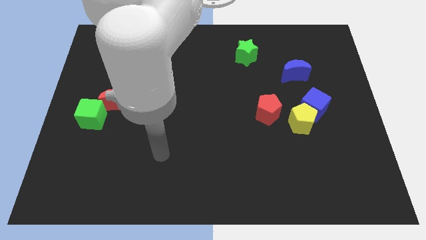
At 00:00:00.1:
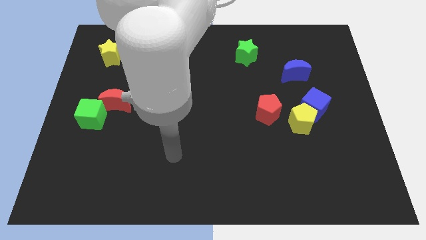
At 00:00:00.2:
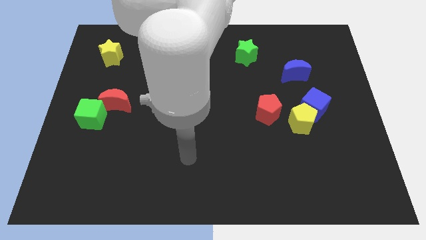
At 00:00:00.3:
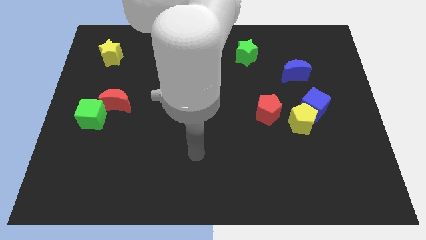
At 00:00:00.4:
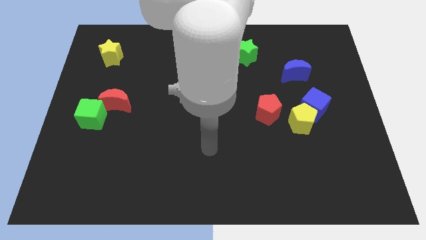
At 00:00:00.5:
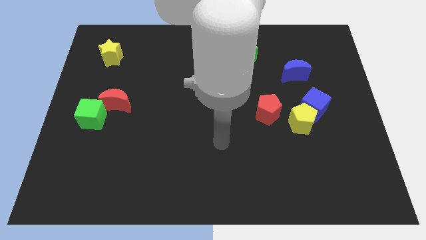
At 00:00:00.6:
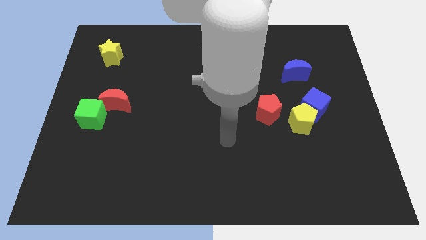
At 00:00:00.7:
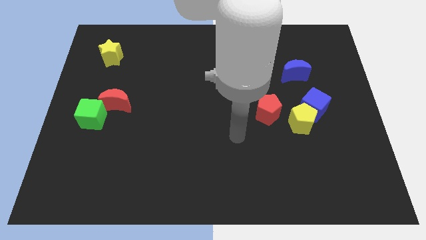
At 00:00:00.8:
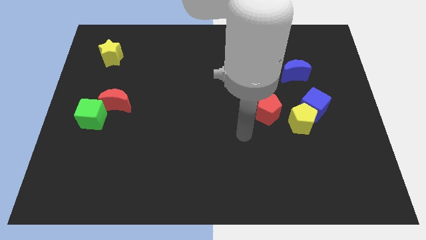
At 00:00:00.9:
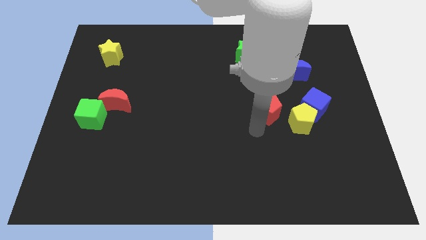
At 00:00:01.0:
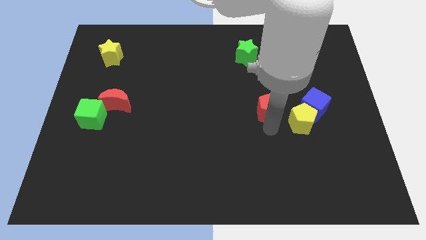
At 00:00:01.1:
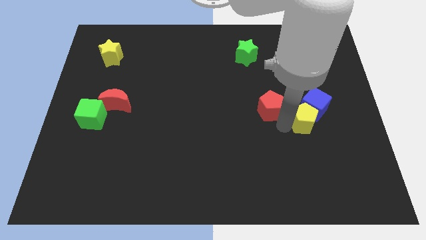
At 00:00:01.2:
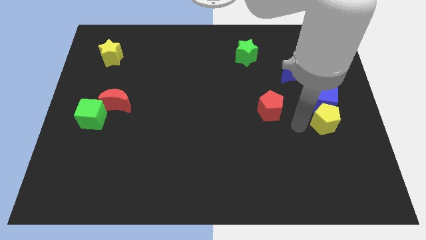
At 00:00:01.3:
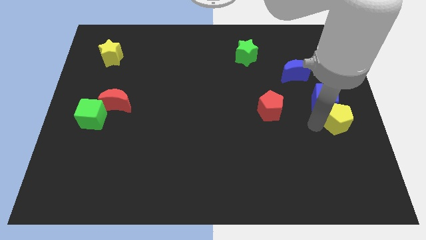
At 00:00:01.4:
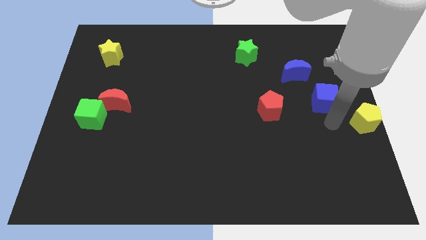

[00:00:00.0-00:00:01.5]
pull the blue cube apart from the yellow pentagon

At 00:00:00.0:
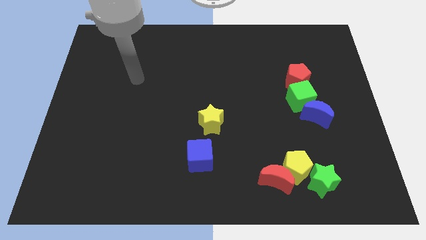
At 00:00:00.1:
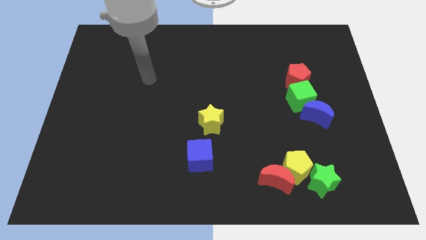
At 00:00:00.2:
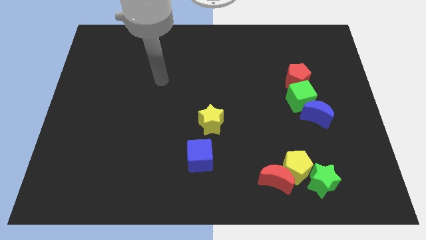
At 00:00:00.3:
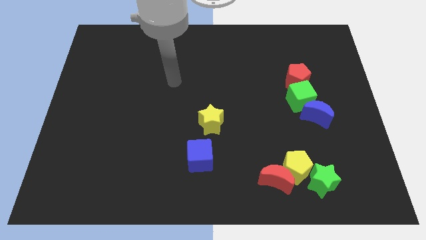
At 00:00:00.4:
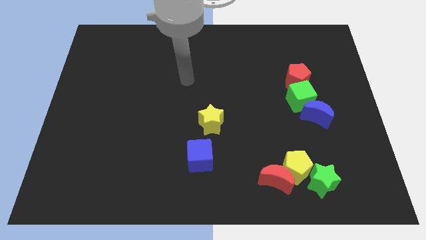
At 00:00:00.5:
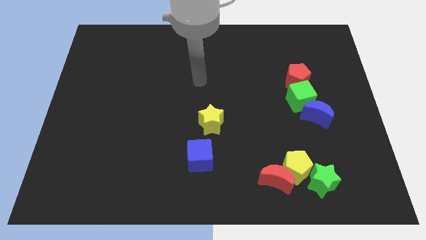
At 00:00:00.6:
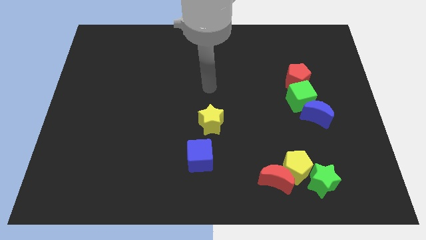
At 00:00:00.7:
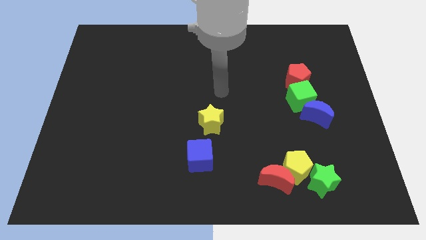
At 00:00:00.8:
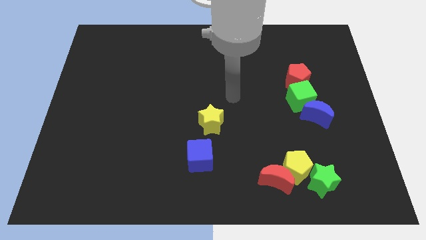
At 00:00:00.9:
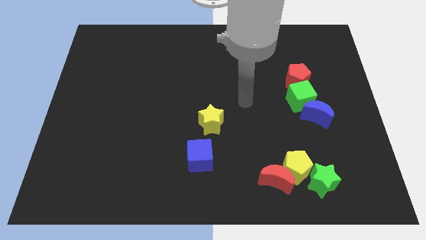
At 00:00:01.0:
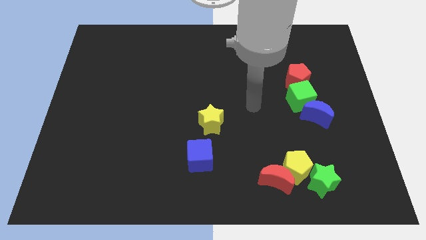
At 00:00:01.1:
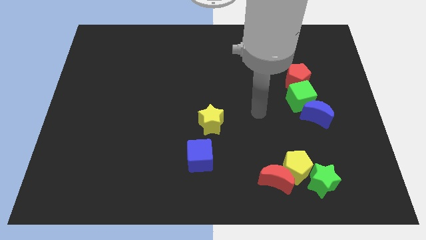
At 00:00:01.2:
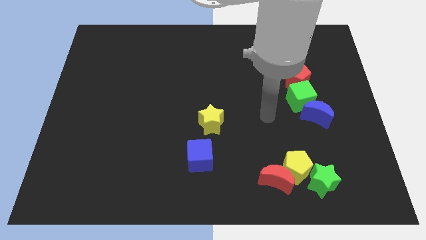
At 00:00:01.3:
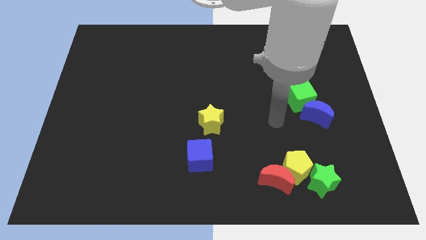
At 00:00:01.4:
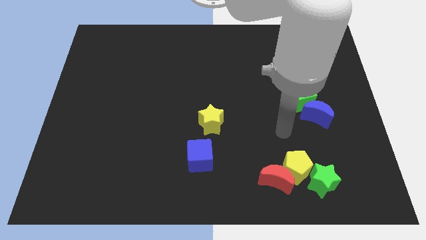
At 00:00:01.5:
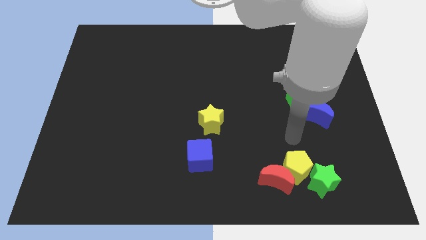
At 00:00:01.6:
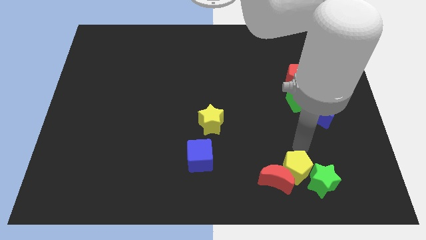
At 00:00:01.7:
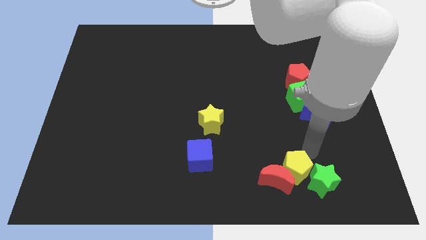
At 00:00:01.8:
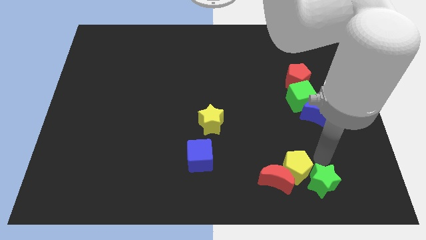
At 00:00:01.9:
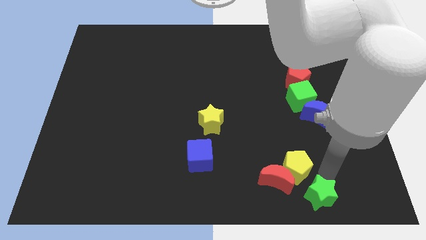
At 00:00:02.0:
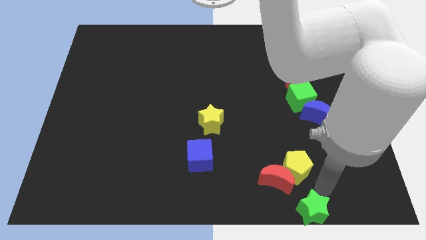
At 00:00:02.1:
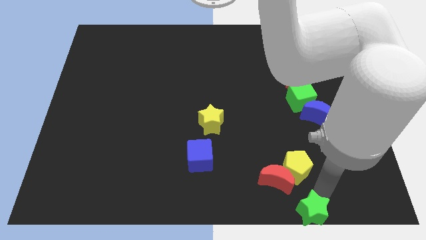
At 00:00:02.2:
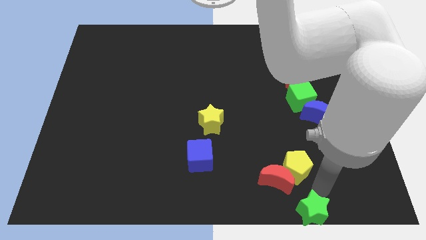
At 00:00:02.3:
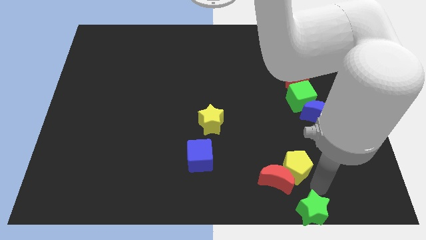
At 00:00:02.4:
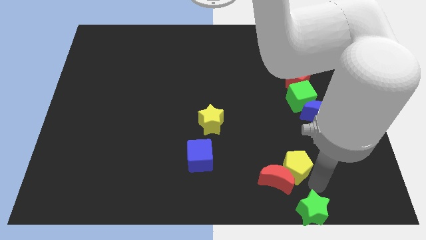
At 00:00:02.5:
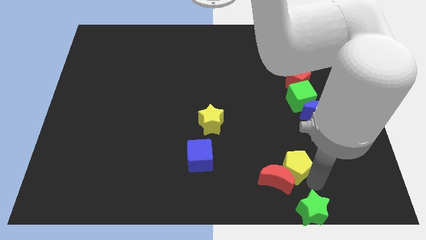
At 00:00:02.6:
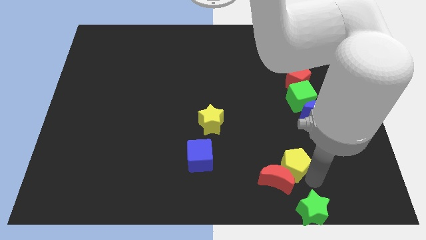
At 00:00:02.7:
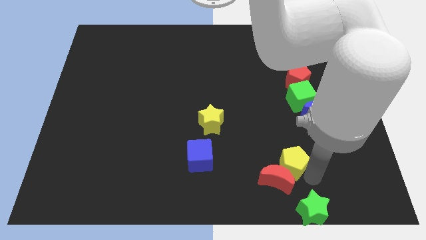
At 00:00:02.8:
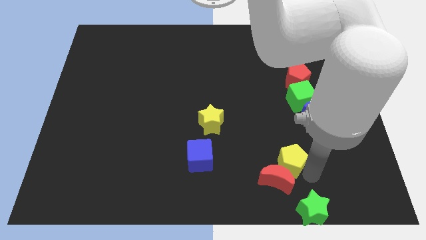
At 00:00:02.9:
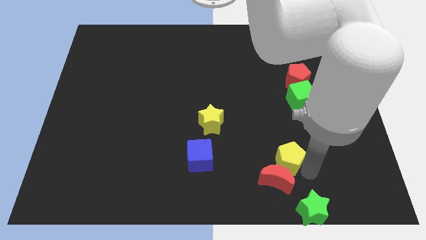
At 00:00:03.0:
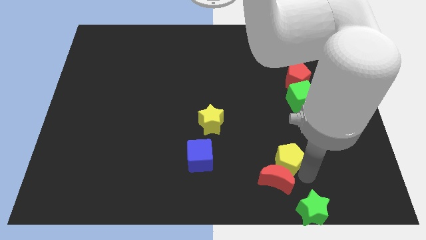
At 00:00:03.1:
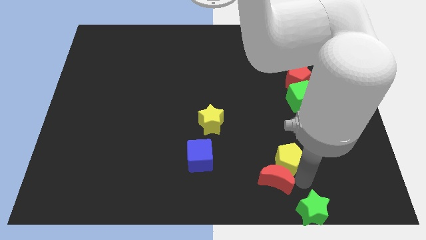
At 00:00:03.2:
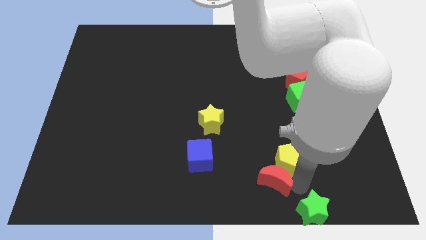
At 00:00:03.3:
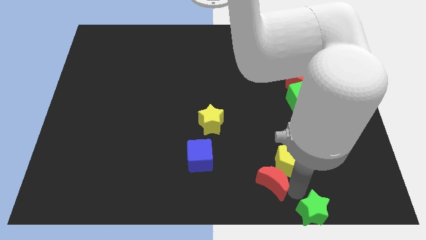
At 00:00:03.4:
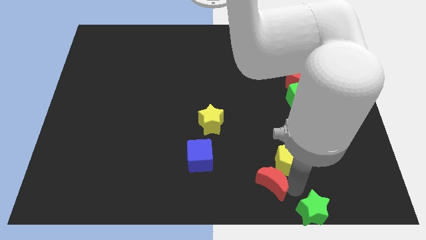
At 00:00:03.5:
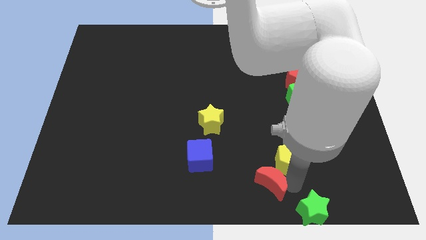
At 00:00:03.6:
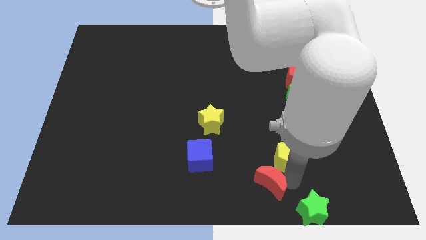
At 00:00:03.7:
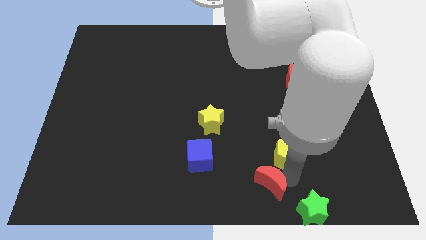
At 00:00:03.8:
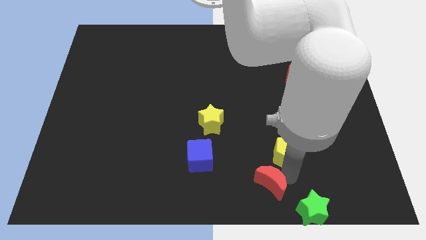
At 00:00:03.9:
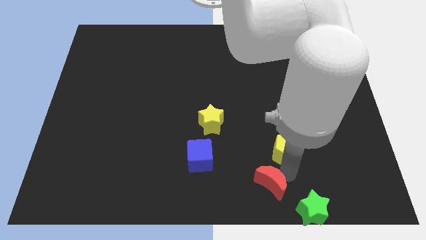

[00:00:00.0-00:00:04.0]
separate the yellow pentagon from the red moon and green star

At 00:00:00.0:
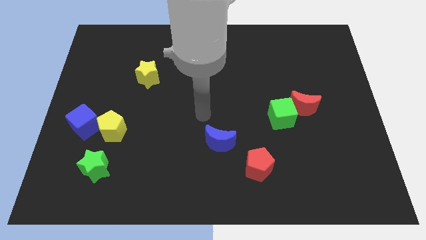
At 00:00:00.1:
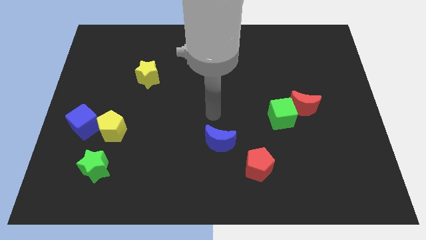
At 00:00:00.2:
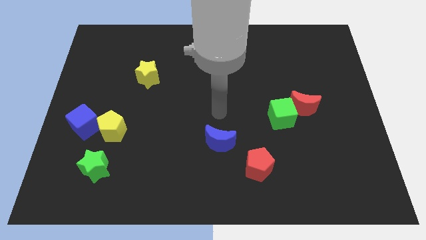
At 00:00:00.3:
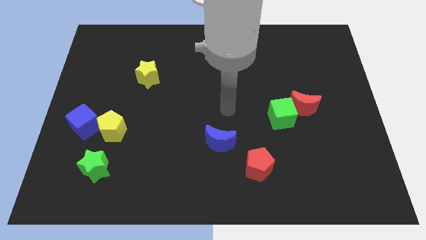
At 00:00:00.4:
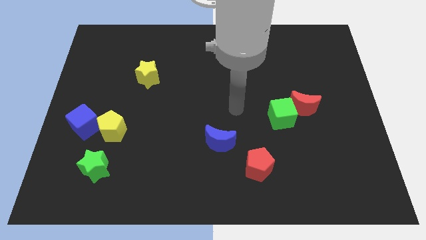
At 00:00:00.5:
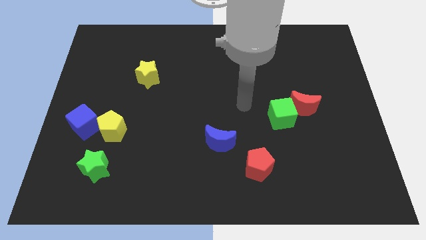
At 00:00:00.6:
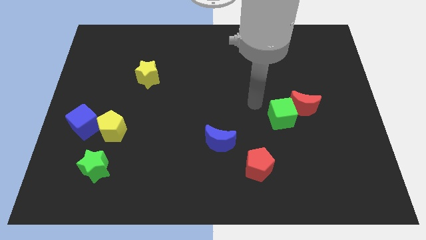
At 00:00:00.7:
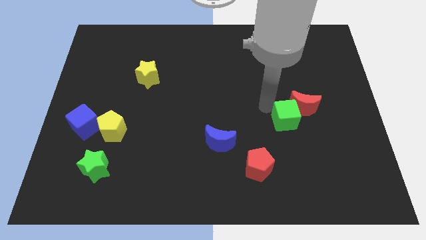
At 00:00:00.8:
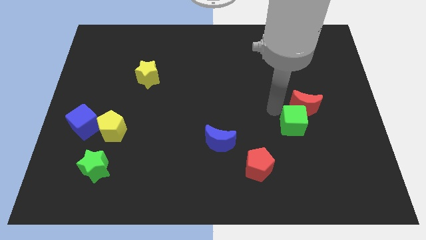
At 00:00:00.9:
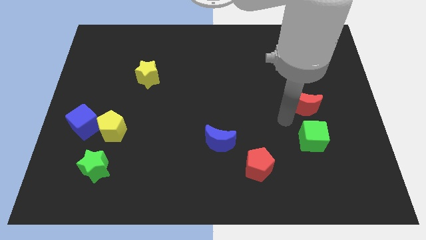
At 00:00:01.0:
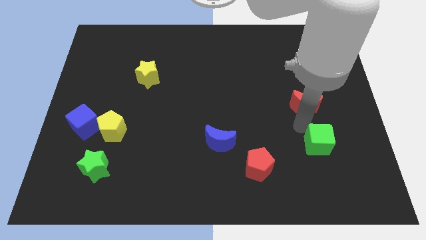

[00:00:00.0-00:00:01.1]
separate the red moon from the green cube

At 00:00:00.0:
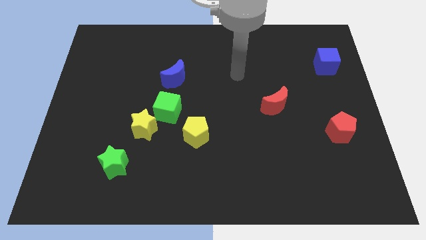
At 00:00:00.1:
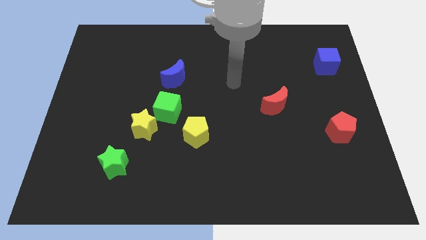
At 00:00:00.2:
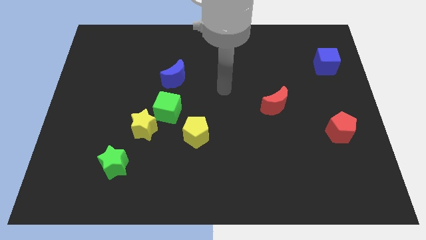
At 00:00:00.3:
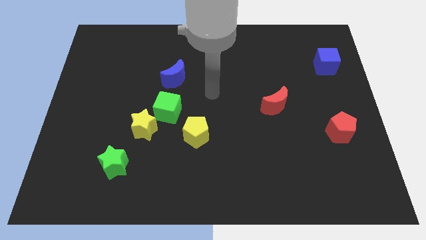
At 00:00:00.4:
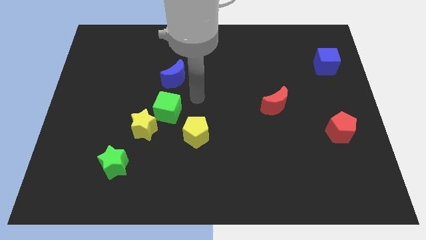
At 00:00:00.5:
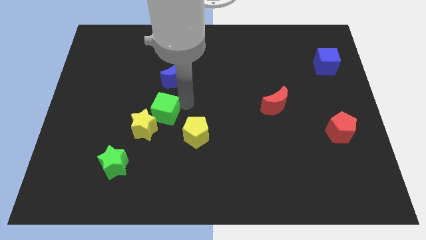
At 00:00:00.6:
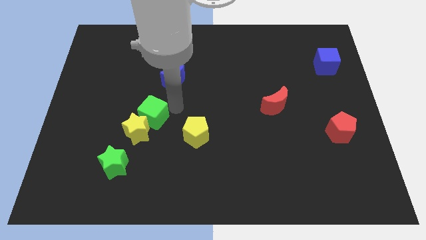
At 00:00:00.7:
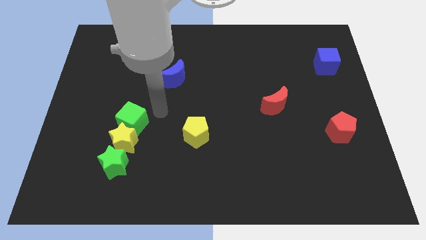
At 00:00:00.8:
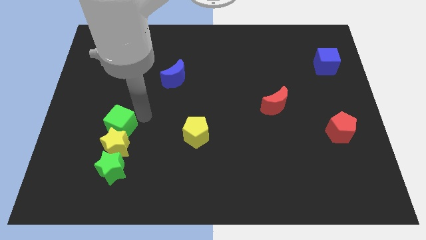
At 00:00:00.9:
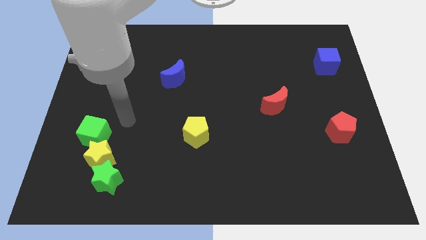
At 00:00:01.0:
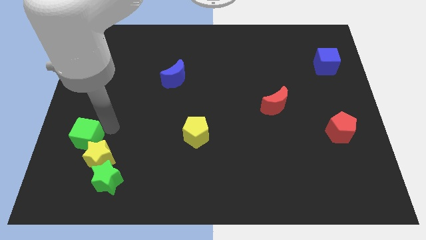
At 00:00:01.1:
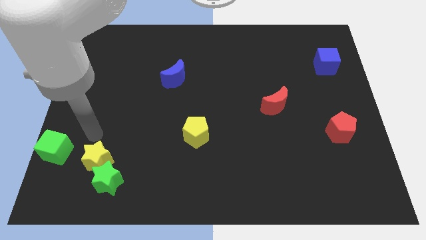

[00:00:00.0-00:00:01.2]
pull the yellow star apart from the green cube

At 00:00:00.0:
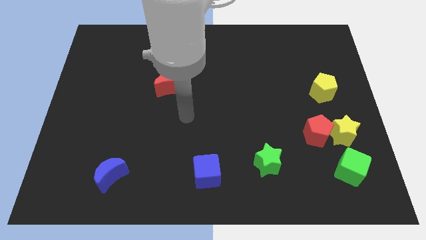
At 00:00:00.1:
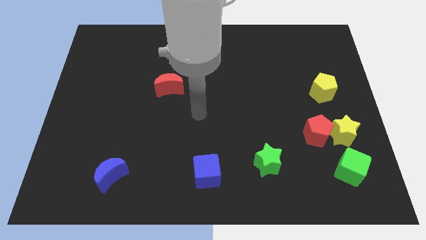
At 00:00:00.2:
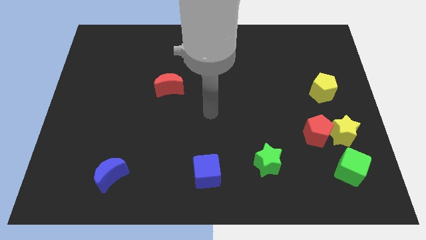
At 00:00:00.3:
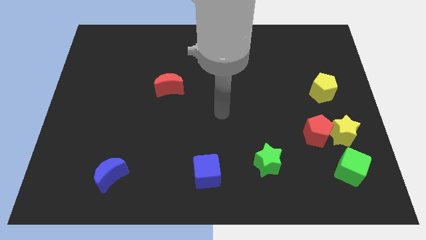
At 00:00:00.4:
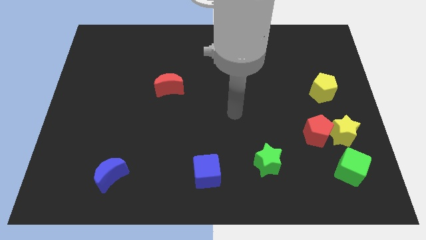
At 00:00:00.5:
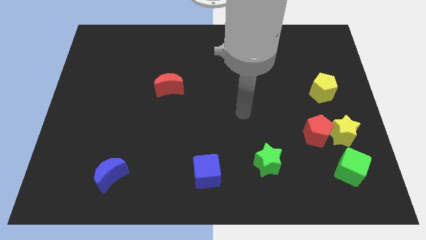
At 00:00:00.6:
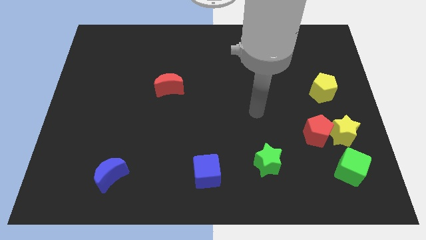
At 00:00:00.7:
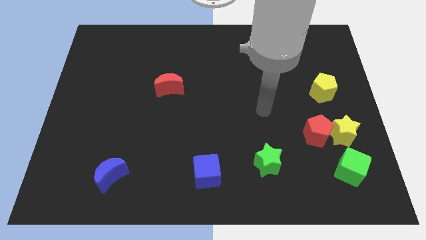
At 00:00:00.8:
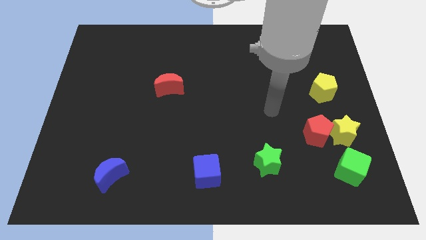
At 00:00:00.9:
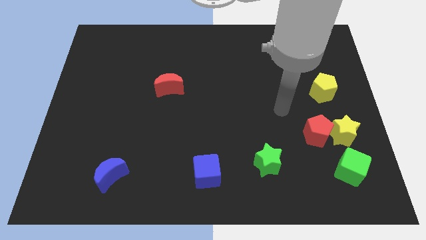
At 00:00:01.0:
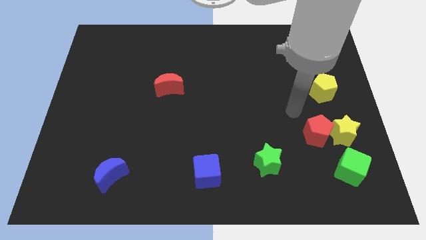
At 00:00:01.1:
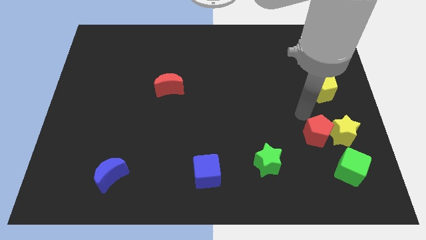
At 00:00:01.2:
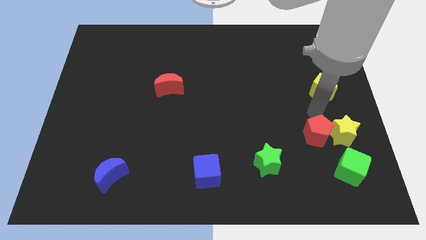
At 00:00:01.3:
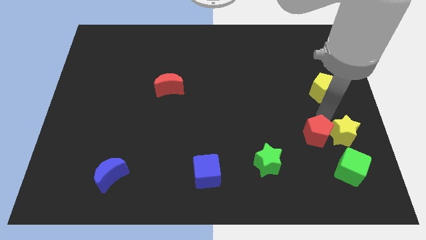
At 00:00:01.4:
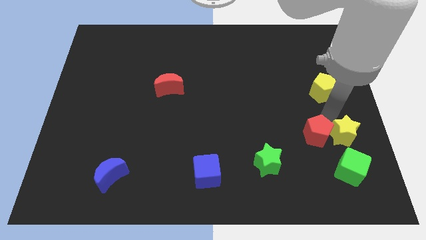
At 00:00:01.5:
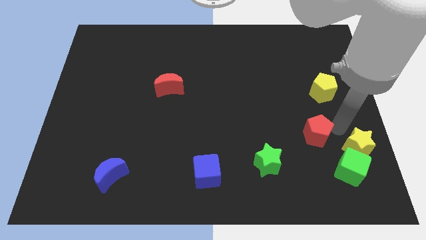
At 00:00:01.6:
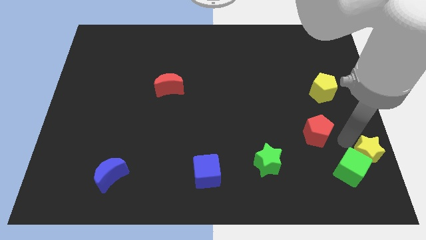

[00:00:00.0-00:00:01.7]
move the red pentagon away from the yellow star
